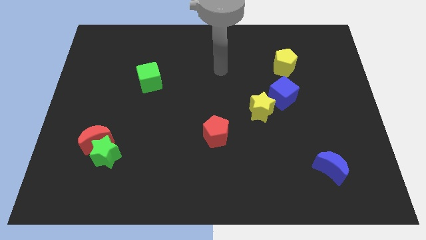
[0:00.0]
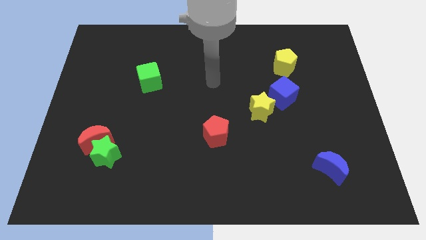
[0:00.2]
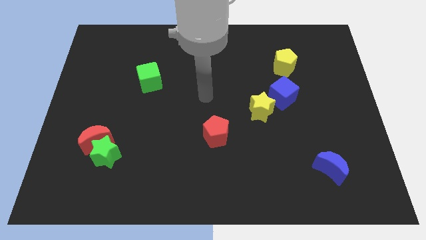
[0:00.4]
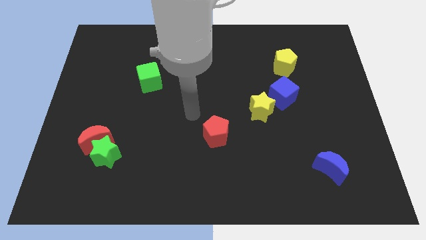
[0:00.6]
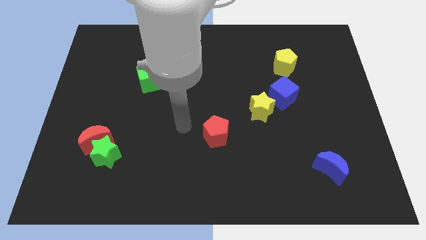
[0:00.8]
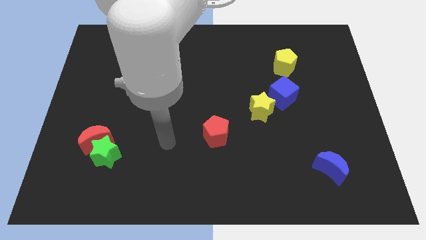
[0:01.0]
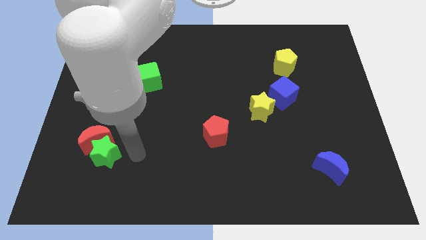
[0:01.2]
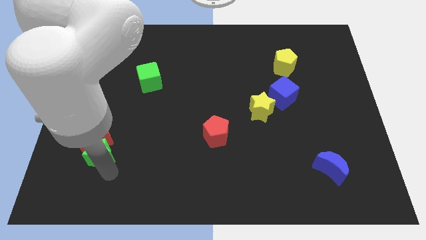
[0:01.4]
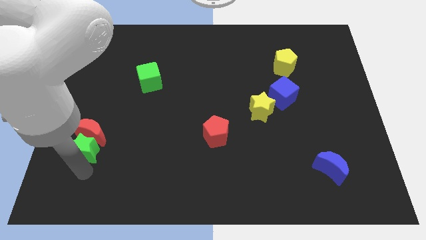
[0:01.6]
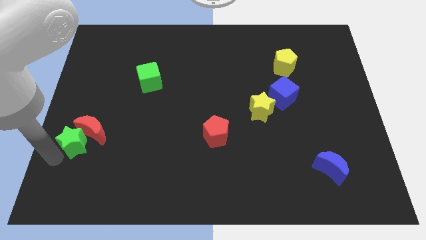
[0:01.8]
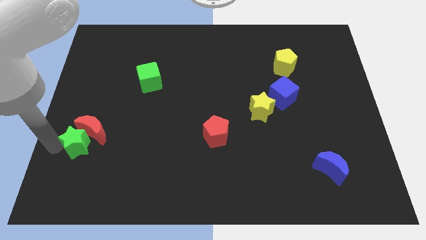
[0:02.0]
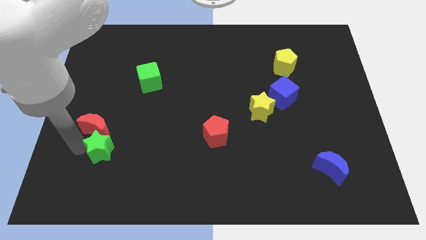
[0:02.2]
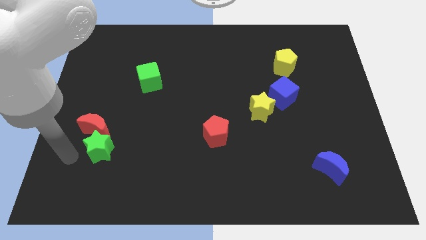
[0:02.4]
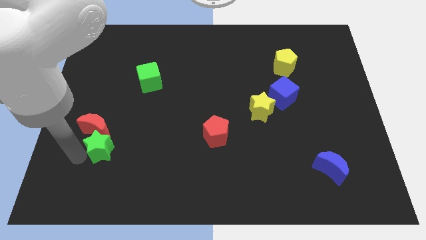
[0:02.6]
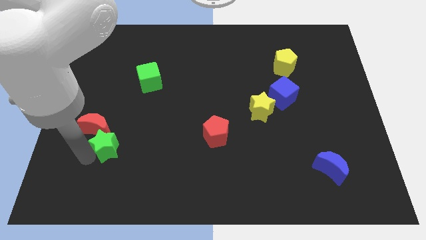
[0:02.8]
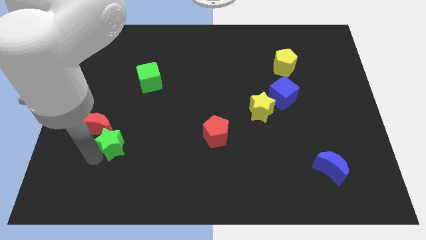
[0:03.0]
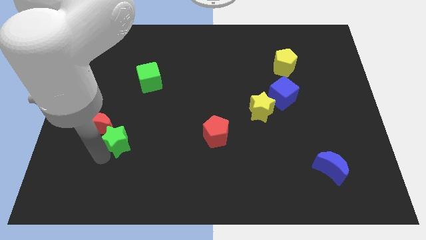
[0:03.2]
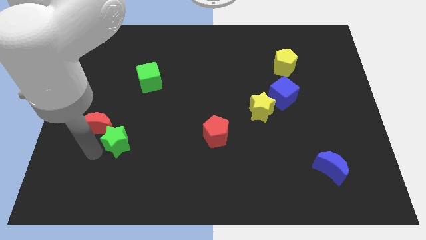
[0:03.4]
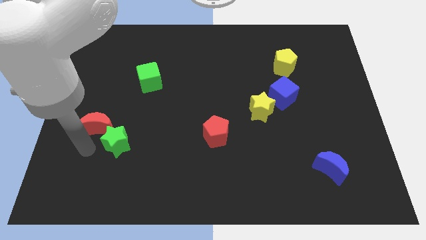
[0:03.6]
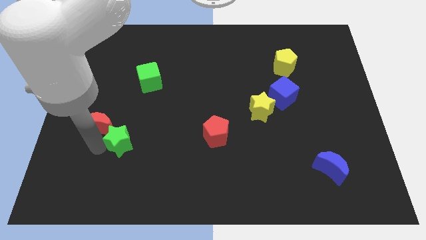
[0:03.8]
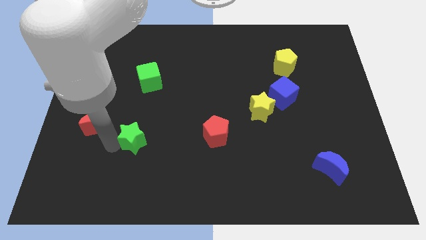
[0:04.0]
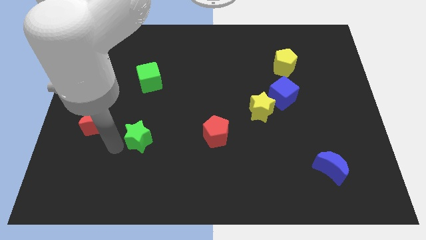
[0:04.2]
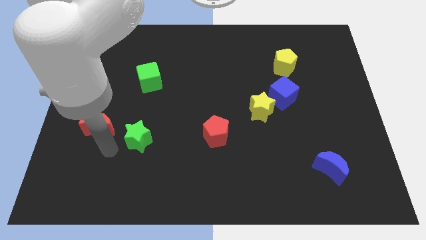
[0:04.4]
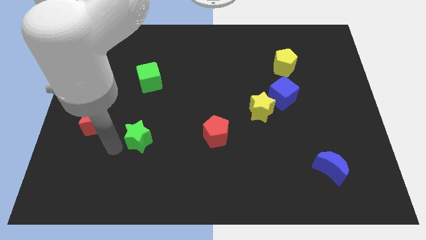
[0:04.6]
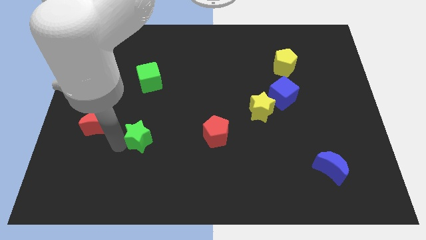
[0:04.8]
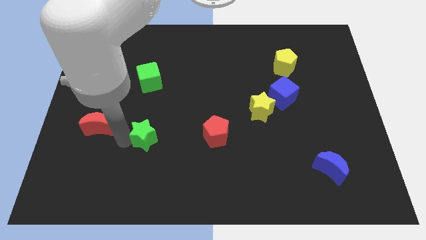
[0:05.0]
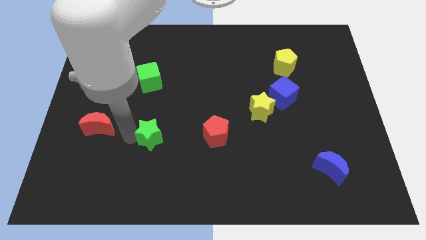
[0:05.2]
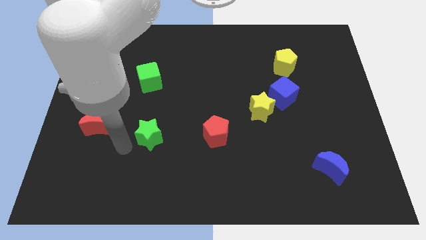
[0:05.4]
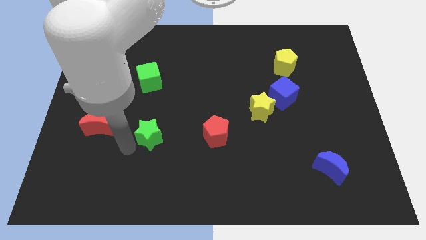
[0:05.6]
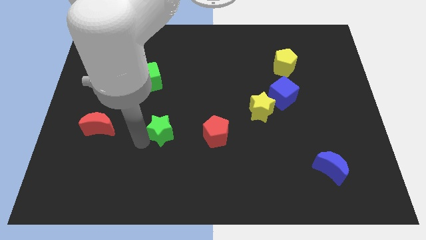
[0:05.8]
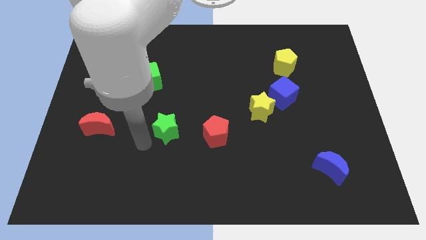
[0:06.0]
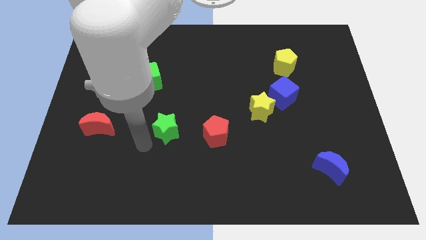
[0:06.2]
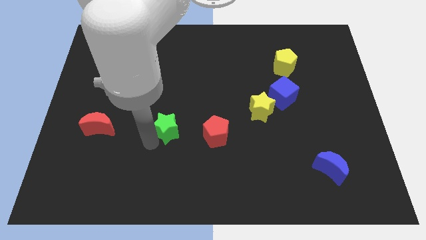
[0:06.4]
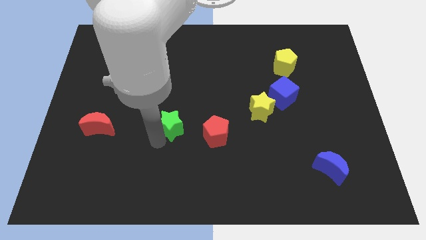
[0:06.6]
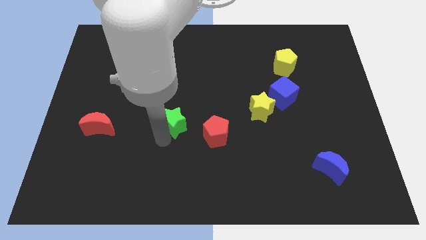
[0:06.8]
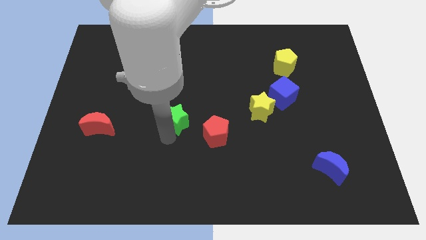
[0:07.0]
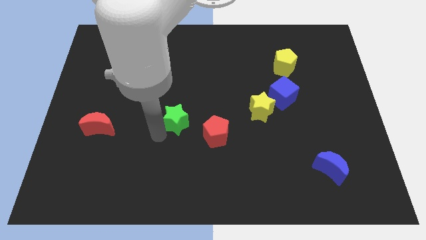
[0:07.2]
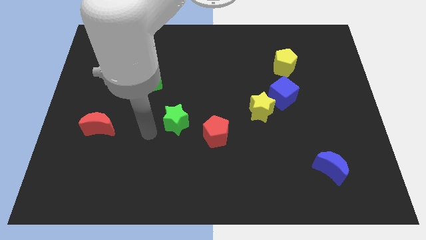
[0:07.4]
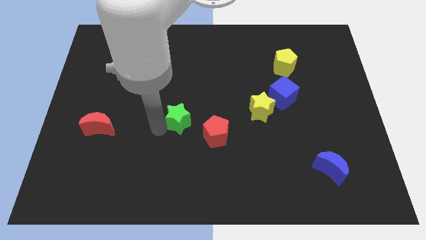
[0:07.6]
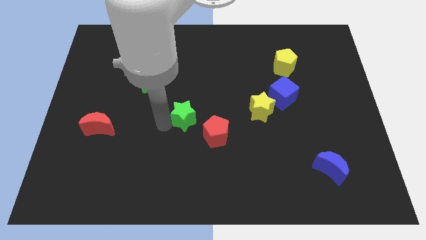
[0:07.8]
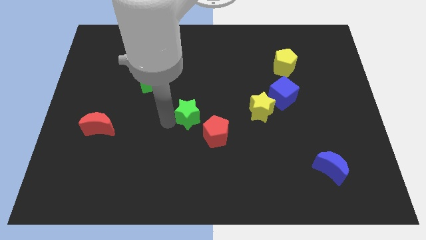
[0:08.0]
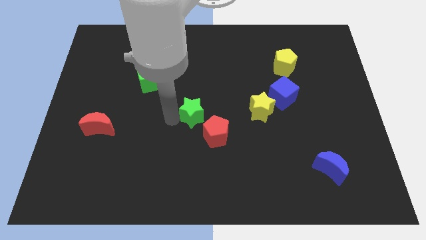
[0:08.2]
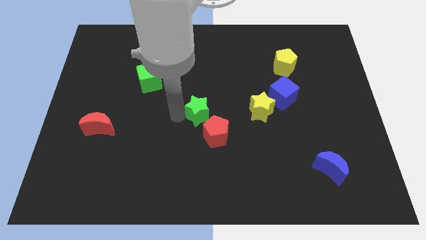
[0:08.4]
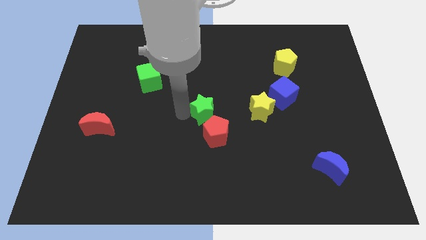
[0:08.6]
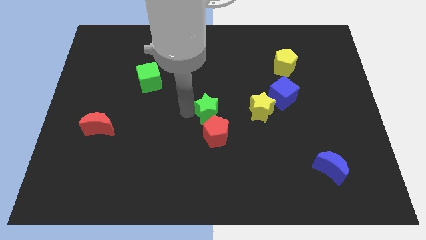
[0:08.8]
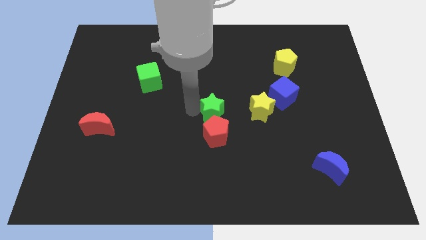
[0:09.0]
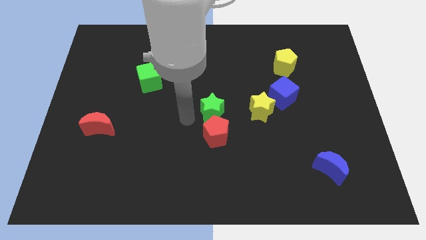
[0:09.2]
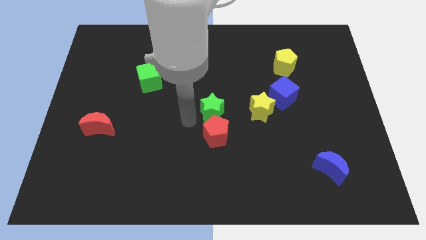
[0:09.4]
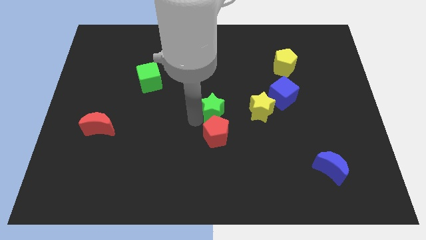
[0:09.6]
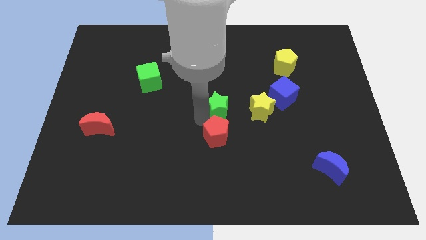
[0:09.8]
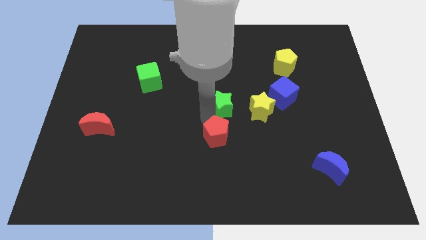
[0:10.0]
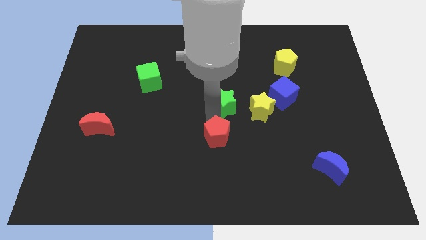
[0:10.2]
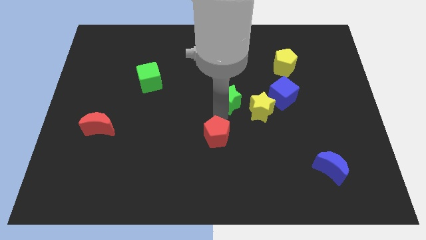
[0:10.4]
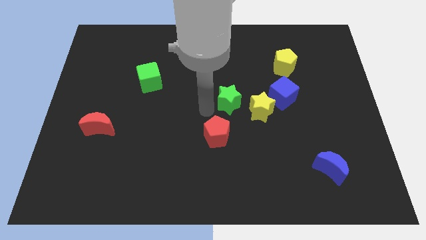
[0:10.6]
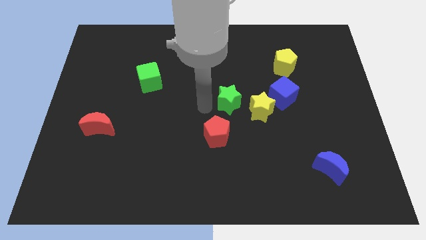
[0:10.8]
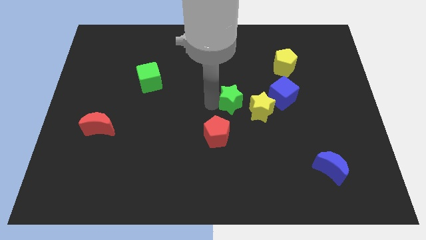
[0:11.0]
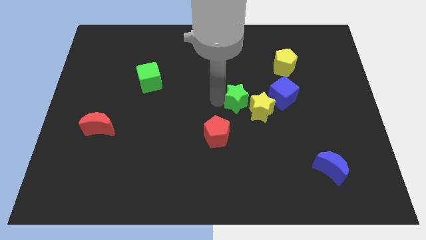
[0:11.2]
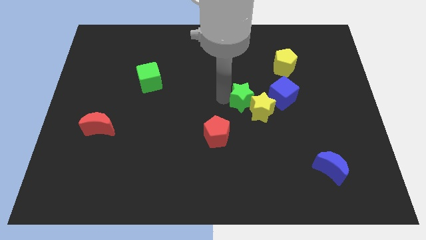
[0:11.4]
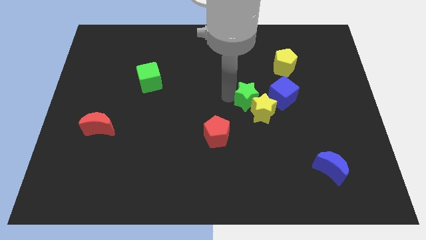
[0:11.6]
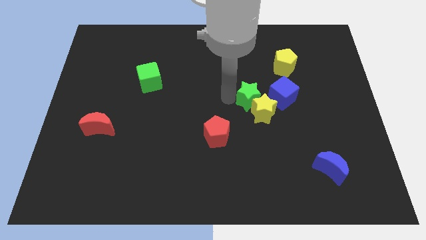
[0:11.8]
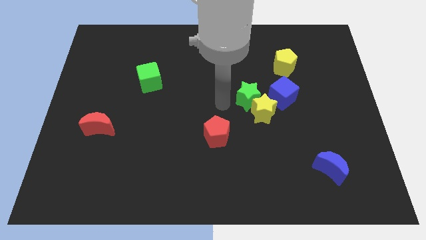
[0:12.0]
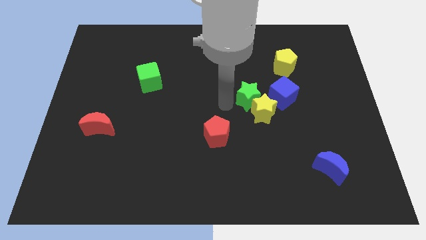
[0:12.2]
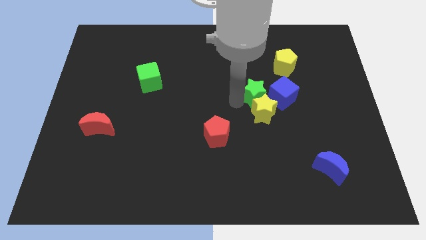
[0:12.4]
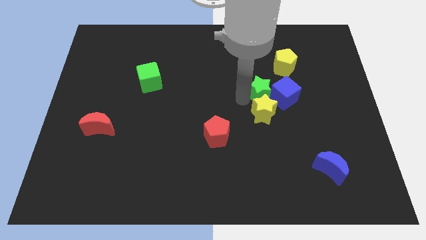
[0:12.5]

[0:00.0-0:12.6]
push the green star to the blue cube

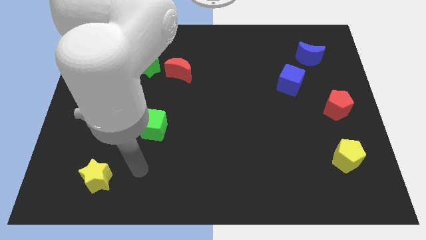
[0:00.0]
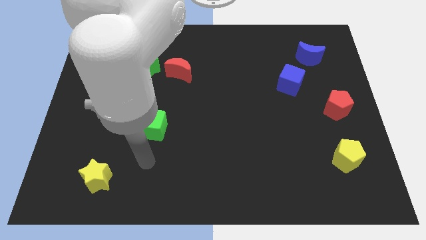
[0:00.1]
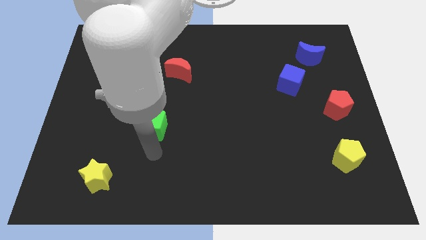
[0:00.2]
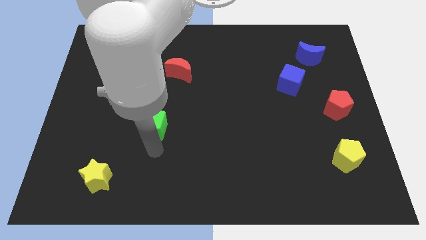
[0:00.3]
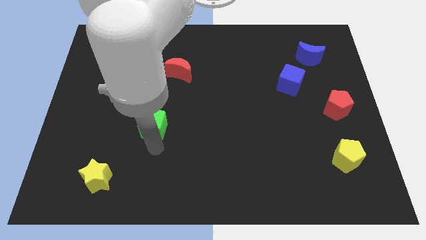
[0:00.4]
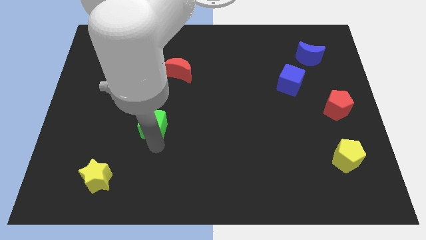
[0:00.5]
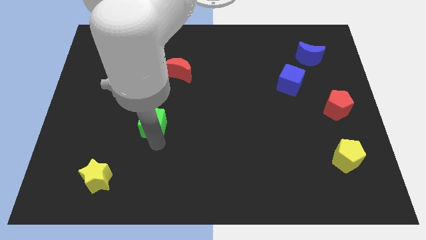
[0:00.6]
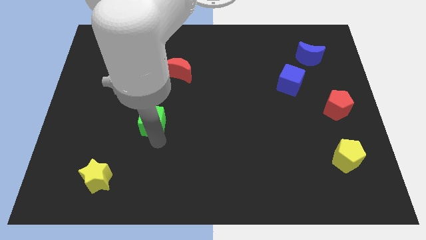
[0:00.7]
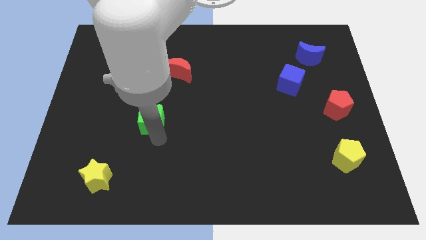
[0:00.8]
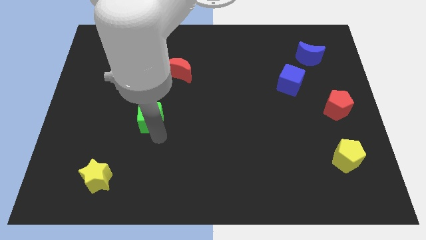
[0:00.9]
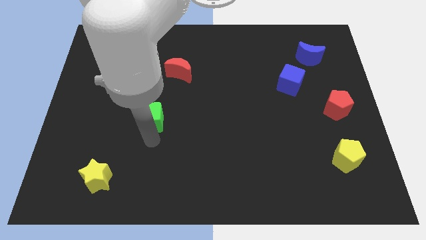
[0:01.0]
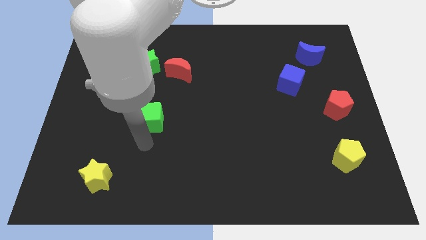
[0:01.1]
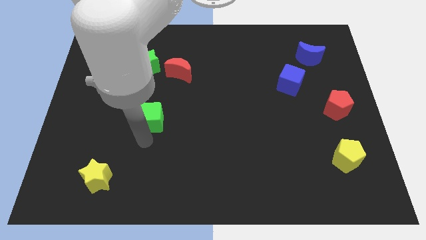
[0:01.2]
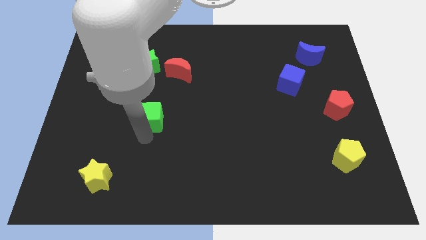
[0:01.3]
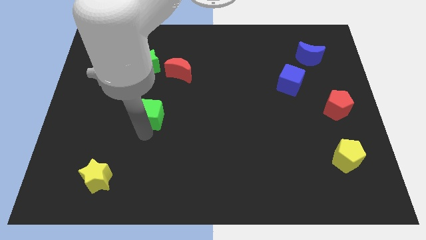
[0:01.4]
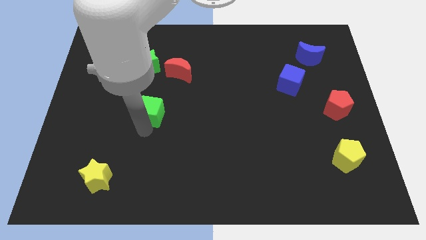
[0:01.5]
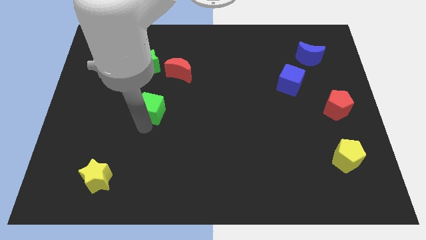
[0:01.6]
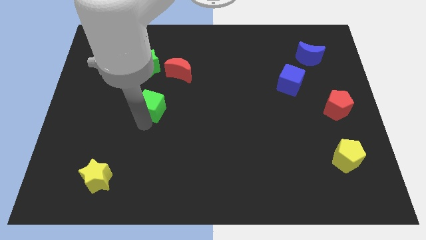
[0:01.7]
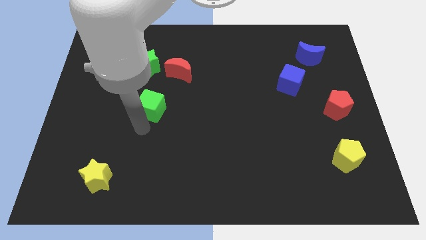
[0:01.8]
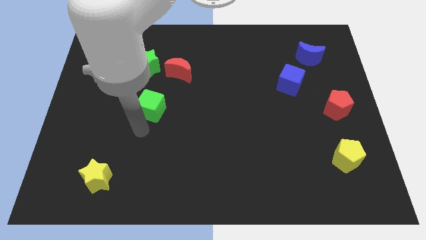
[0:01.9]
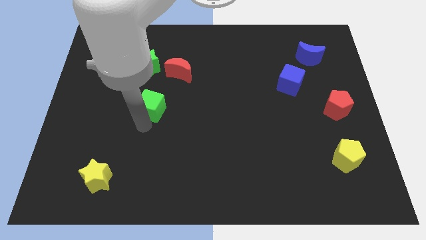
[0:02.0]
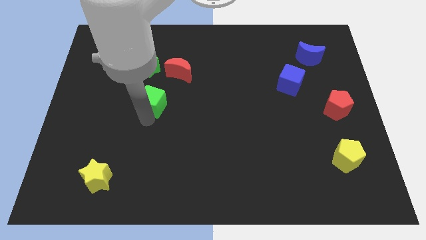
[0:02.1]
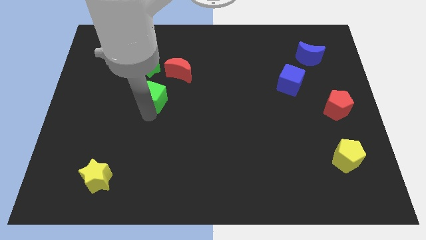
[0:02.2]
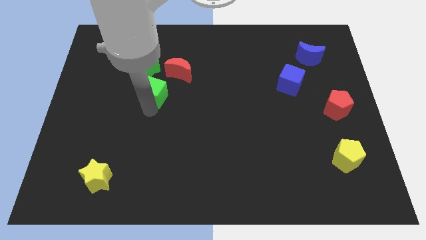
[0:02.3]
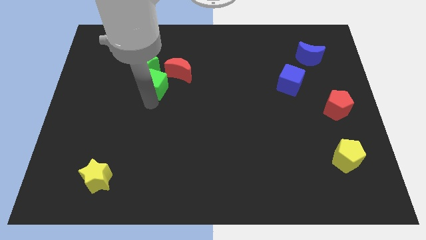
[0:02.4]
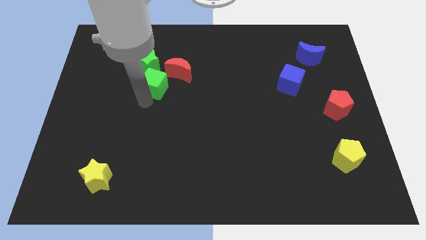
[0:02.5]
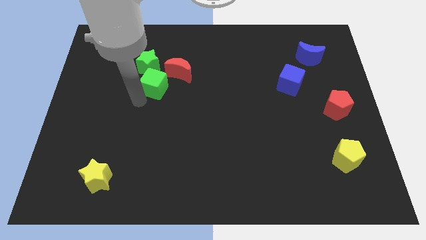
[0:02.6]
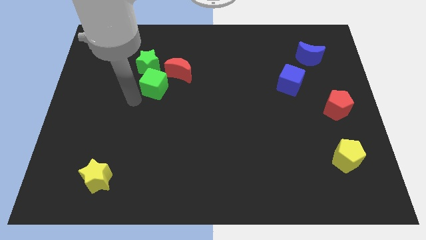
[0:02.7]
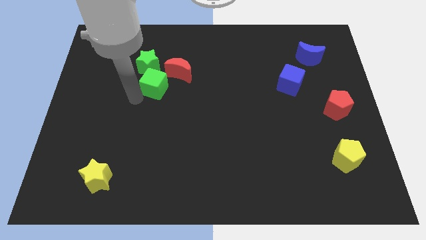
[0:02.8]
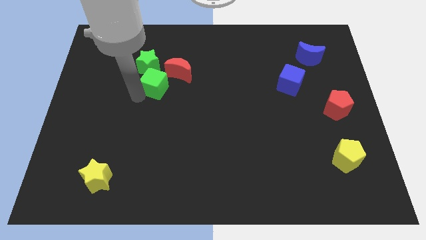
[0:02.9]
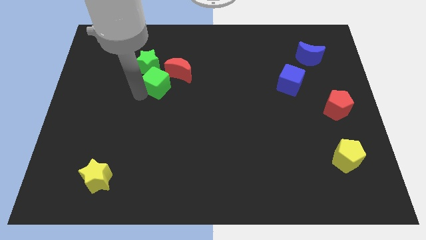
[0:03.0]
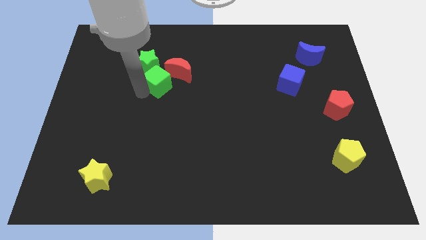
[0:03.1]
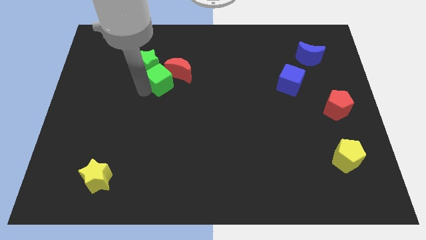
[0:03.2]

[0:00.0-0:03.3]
push the green cube close to the red moon
